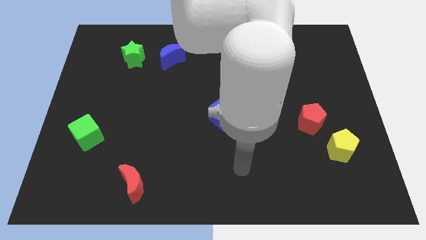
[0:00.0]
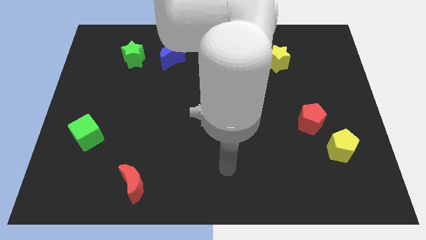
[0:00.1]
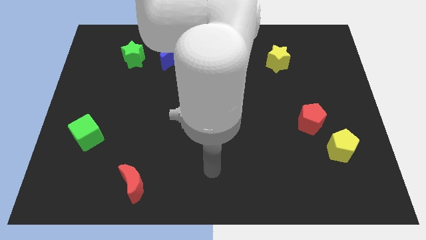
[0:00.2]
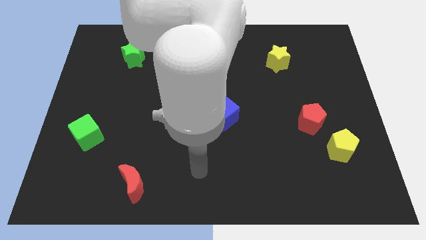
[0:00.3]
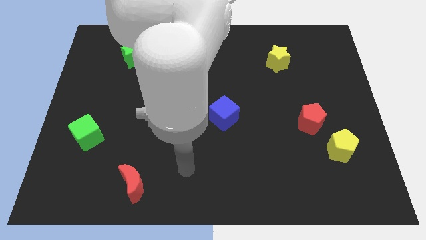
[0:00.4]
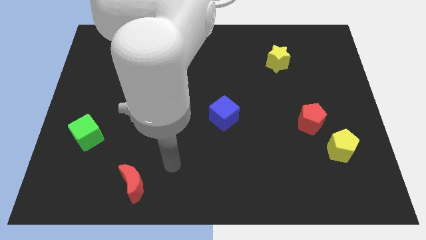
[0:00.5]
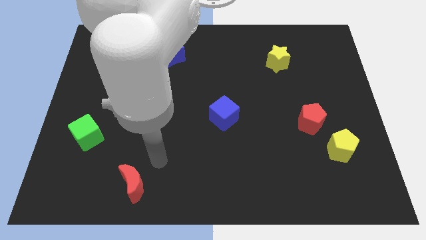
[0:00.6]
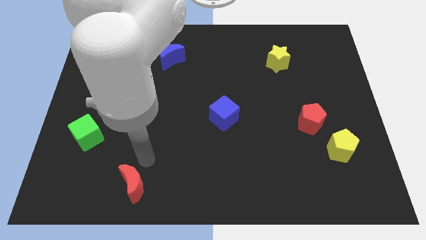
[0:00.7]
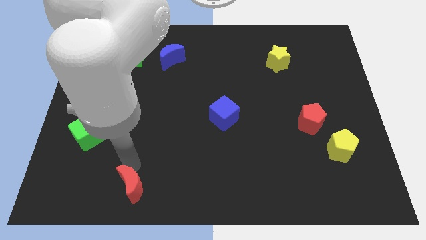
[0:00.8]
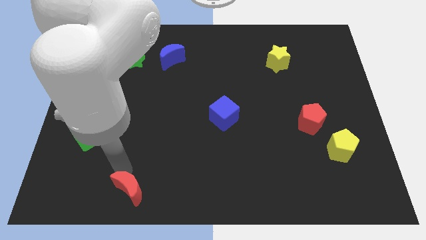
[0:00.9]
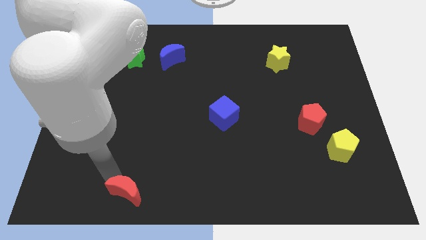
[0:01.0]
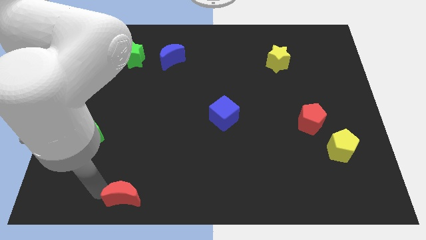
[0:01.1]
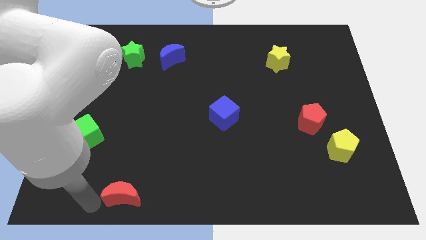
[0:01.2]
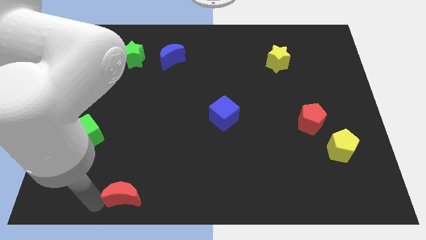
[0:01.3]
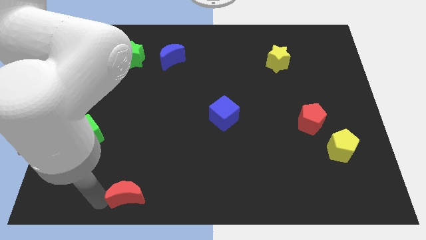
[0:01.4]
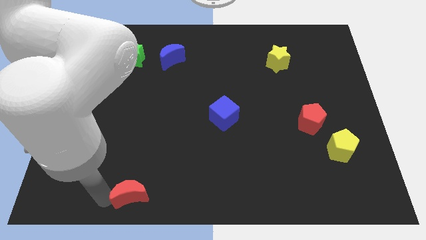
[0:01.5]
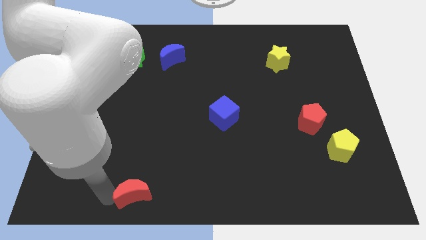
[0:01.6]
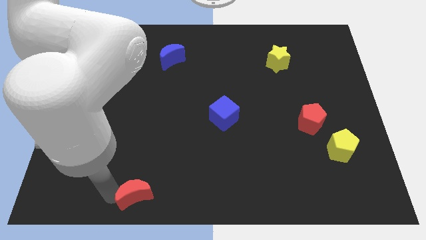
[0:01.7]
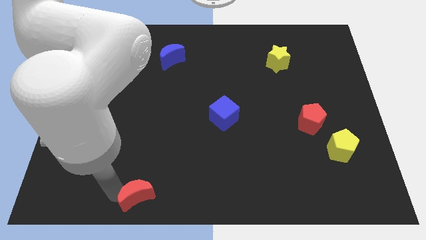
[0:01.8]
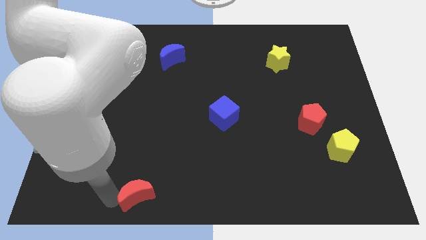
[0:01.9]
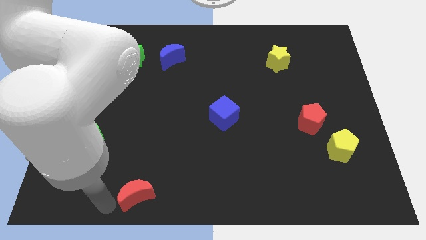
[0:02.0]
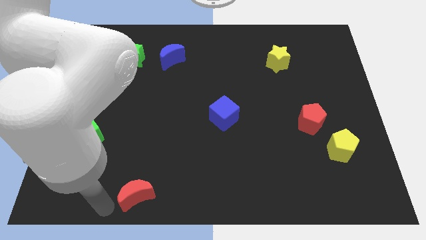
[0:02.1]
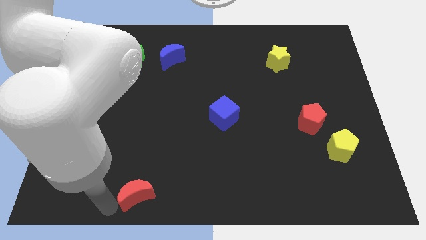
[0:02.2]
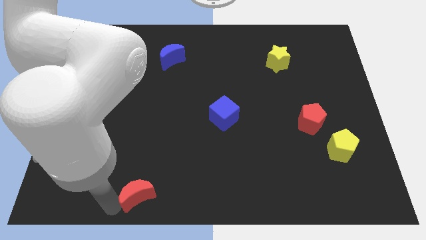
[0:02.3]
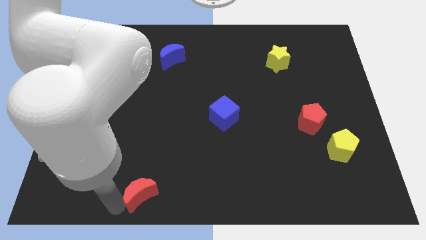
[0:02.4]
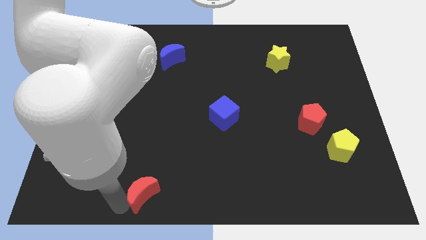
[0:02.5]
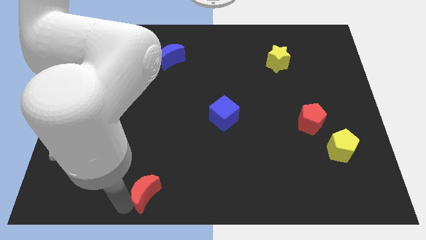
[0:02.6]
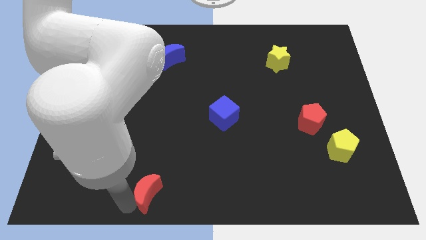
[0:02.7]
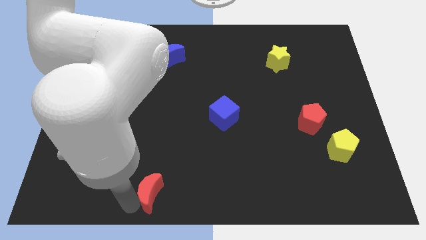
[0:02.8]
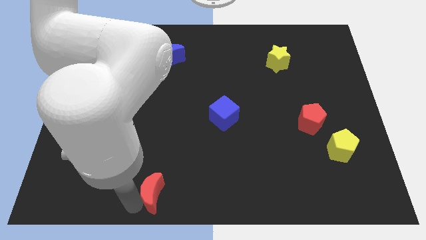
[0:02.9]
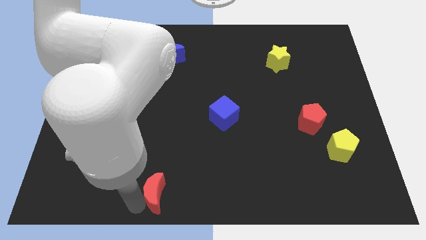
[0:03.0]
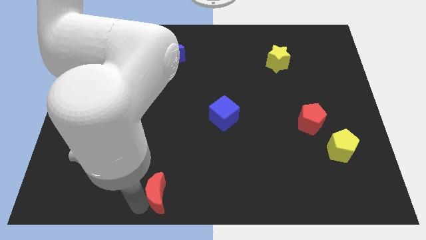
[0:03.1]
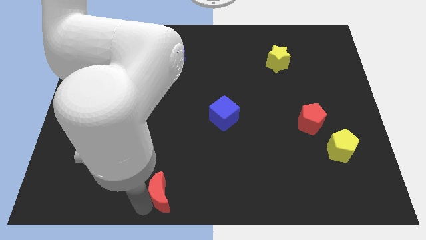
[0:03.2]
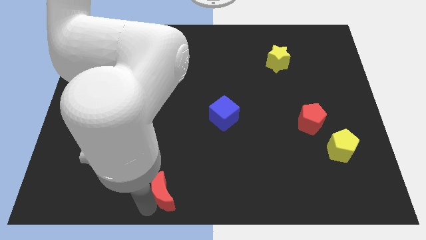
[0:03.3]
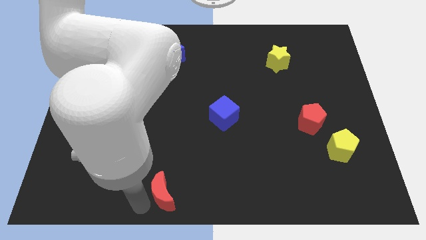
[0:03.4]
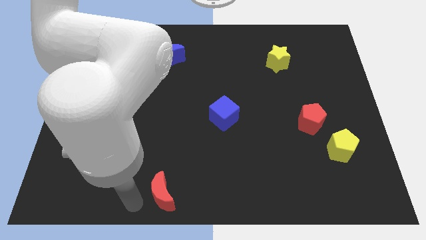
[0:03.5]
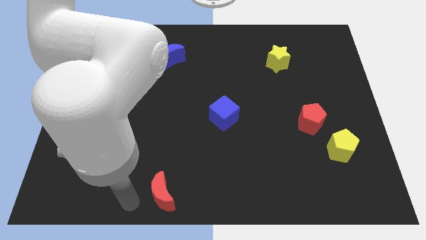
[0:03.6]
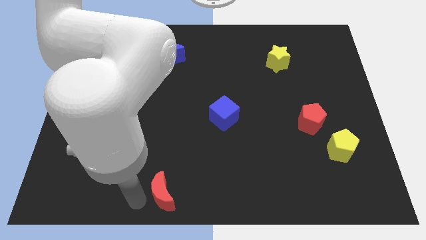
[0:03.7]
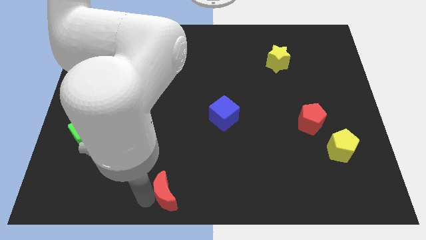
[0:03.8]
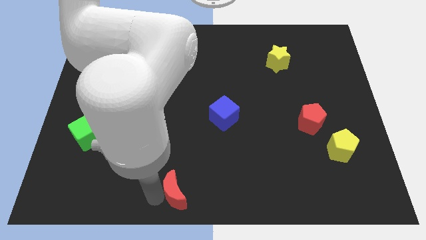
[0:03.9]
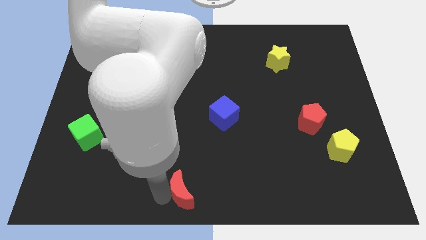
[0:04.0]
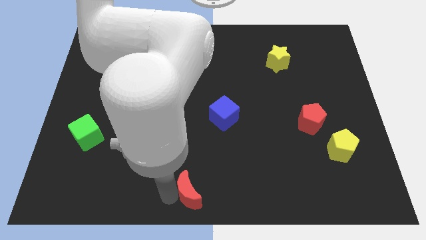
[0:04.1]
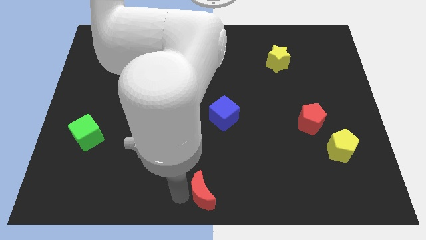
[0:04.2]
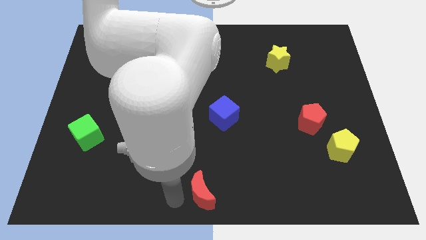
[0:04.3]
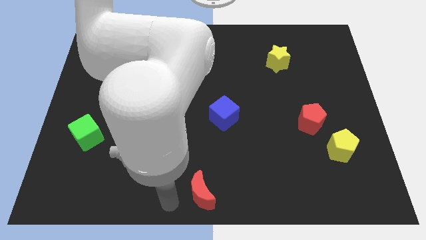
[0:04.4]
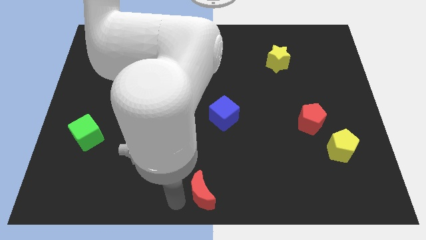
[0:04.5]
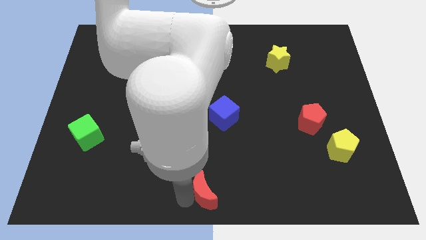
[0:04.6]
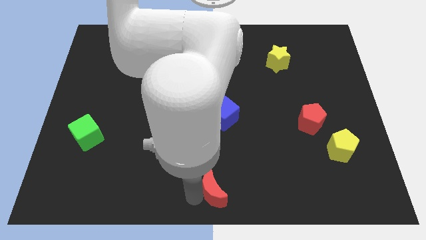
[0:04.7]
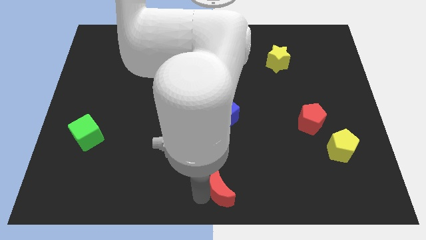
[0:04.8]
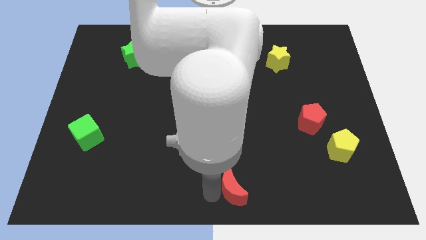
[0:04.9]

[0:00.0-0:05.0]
push the red moon right

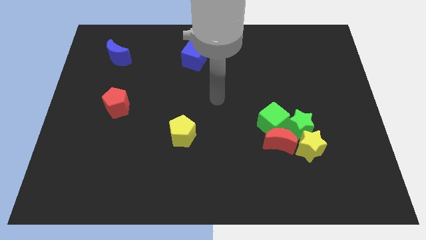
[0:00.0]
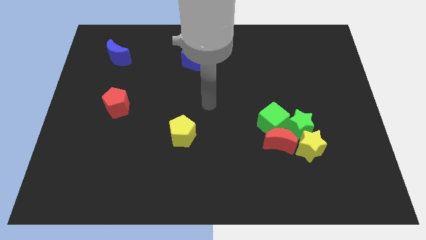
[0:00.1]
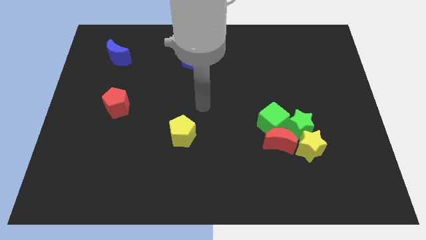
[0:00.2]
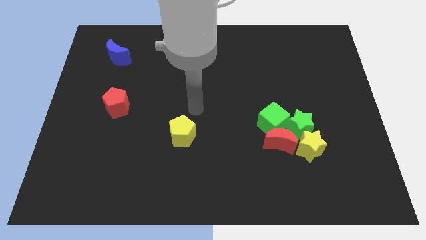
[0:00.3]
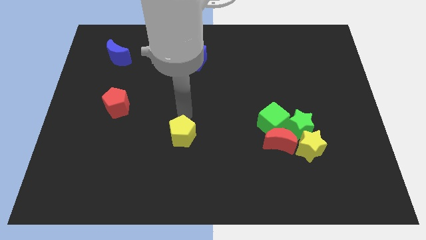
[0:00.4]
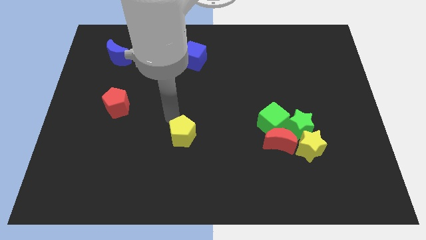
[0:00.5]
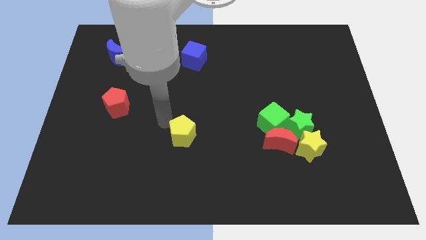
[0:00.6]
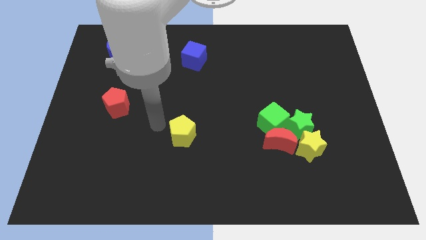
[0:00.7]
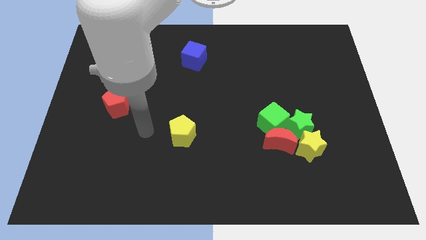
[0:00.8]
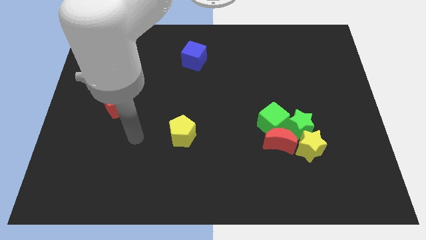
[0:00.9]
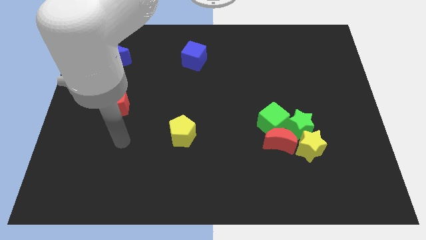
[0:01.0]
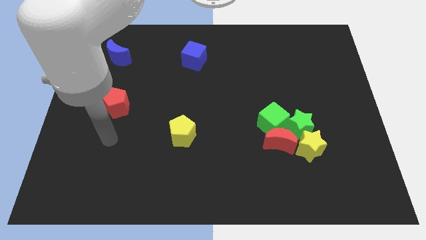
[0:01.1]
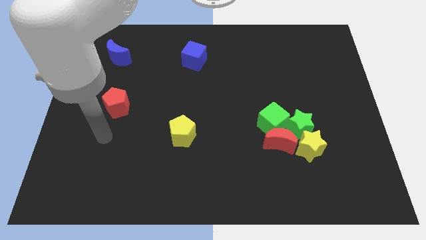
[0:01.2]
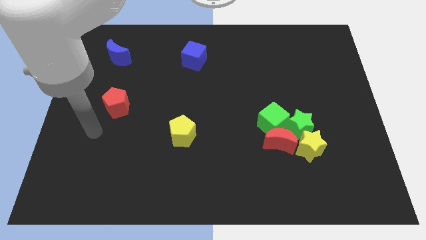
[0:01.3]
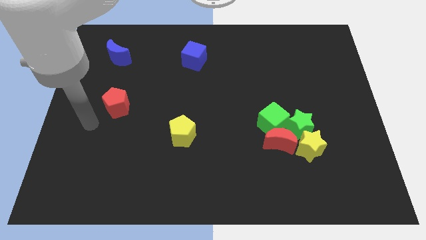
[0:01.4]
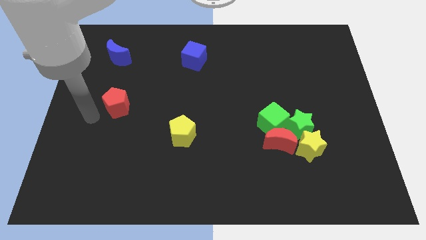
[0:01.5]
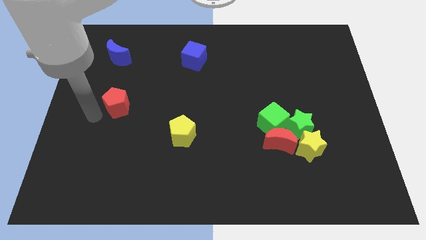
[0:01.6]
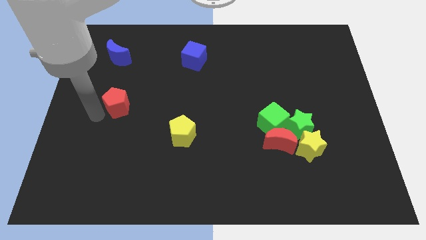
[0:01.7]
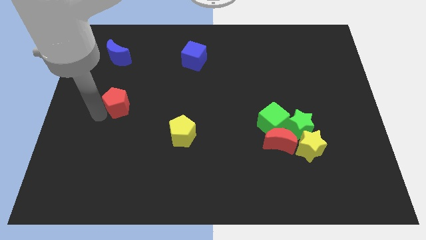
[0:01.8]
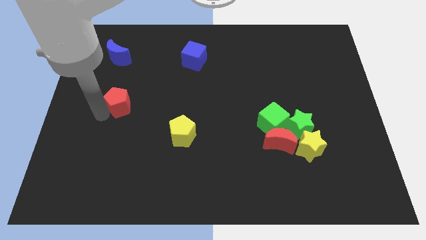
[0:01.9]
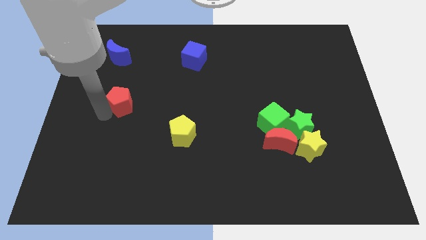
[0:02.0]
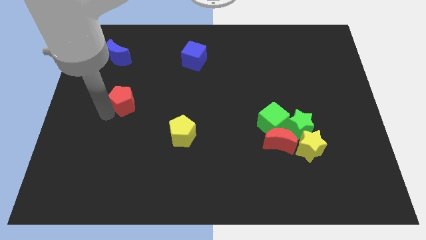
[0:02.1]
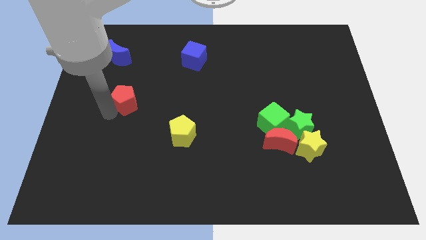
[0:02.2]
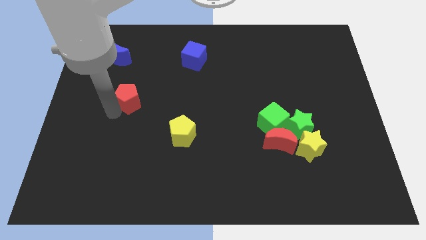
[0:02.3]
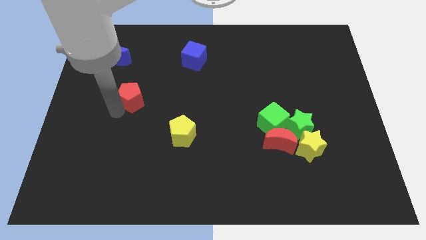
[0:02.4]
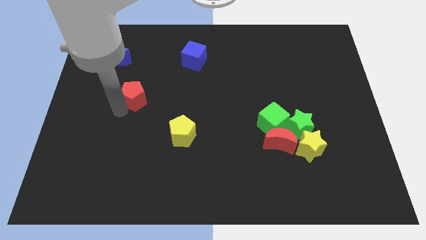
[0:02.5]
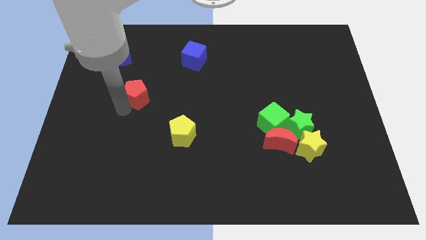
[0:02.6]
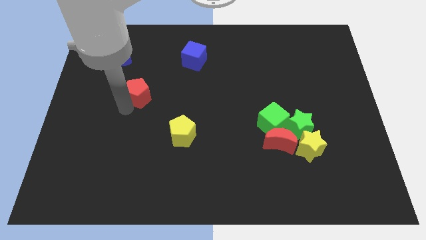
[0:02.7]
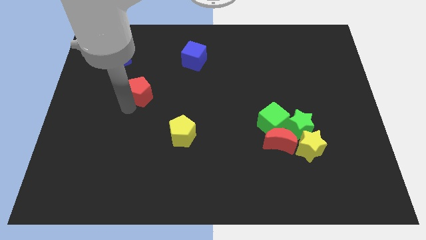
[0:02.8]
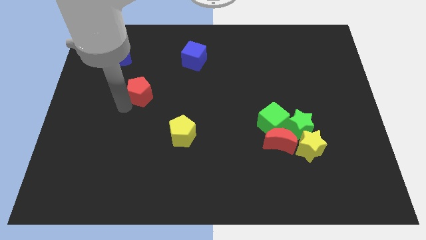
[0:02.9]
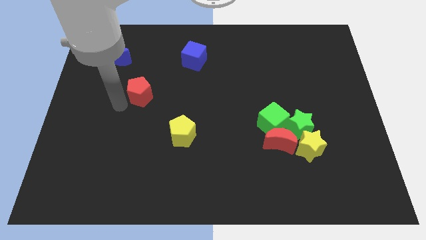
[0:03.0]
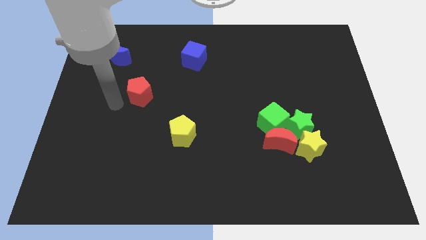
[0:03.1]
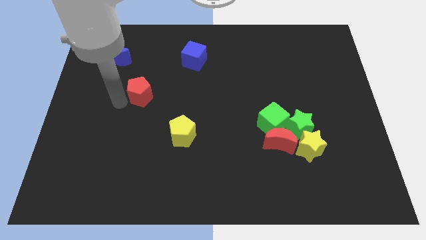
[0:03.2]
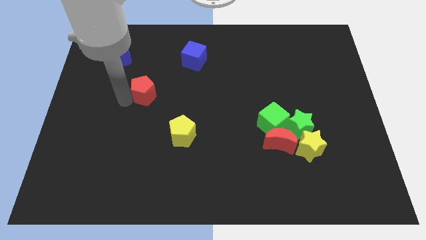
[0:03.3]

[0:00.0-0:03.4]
slightly push the red pentagon upwards and then to the right
